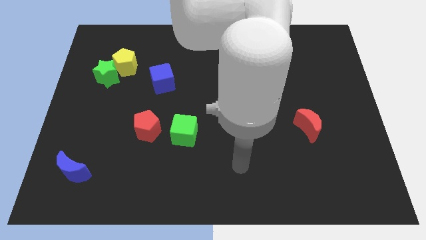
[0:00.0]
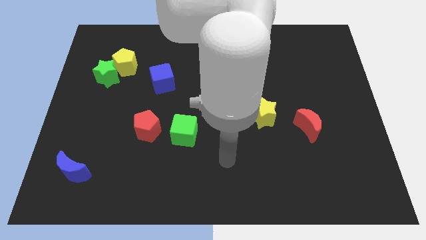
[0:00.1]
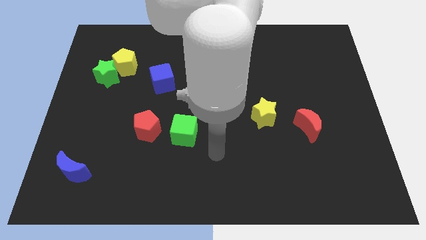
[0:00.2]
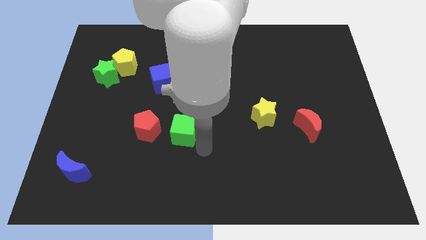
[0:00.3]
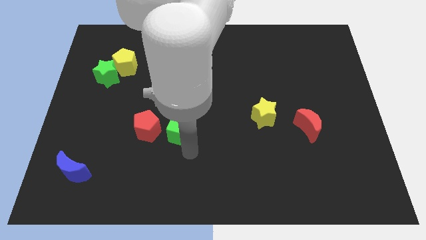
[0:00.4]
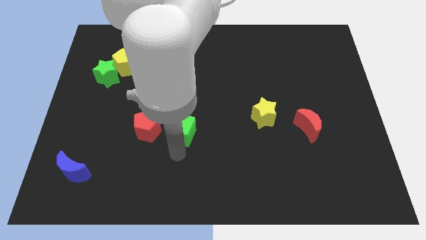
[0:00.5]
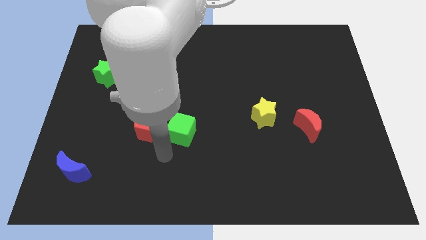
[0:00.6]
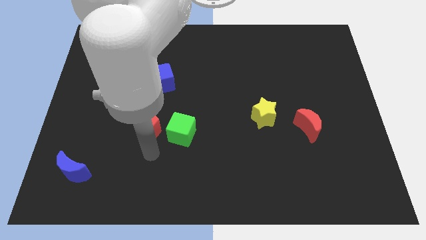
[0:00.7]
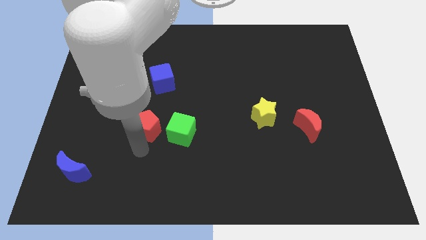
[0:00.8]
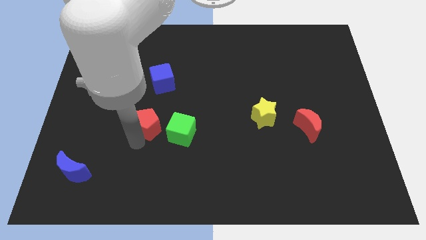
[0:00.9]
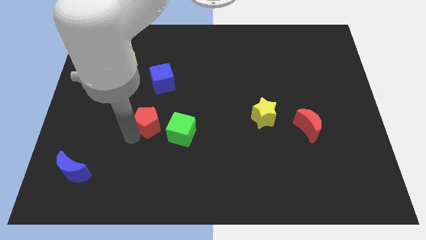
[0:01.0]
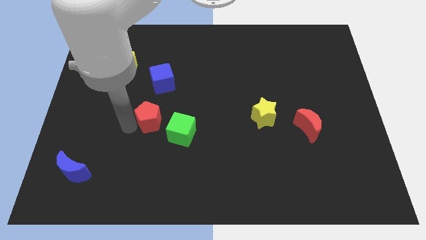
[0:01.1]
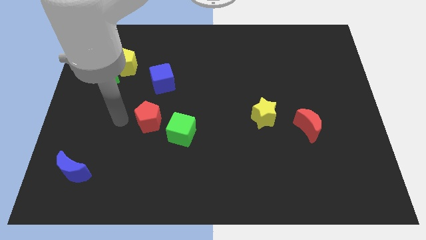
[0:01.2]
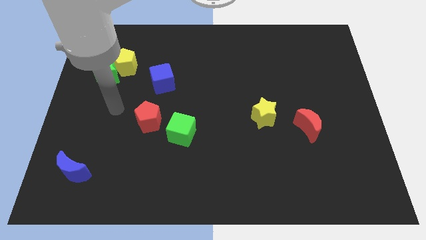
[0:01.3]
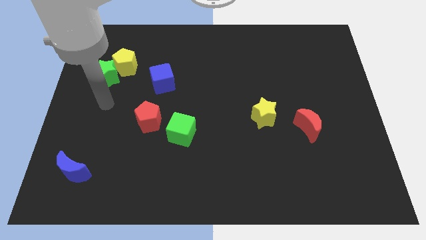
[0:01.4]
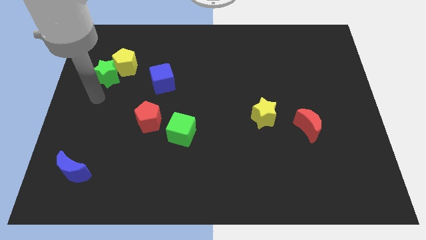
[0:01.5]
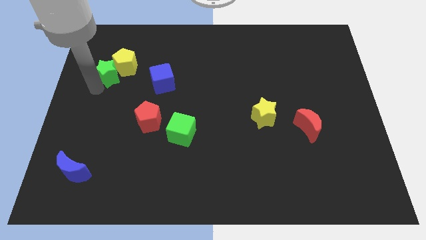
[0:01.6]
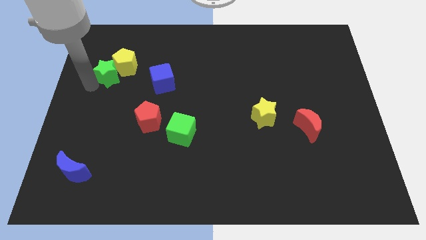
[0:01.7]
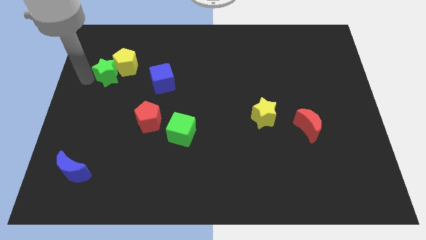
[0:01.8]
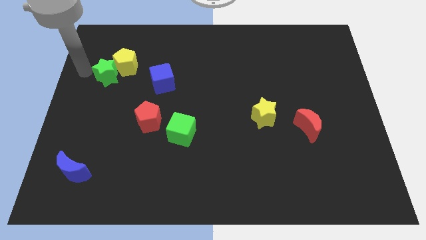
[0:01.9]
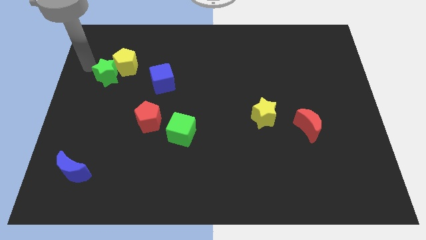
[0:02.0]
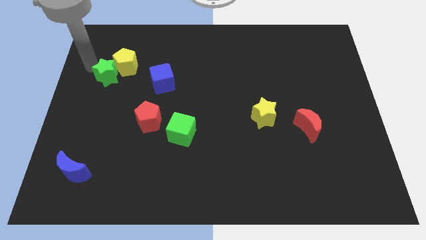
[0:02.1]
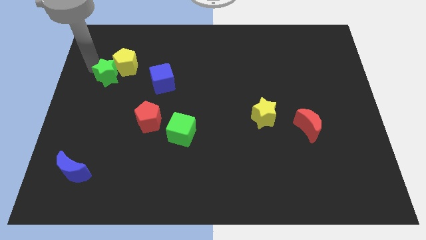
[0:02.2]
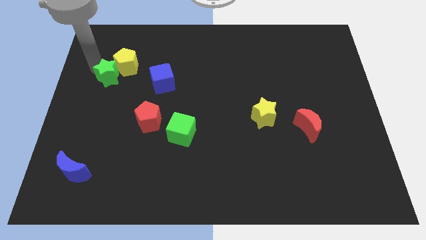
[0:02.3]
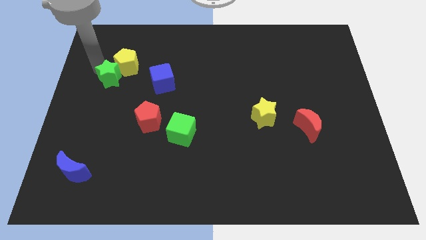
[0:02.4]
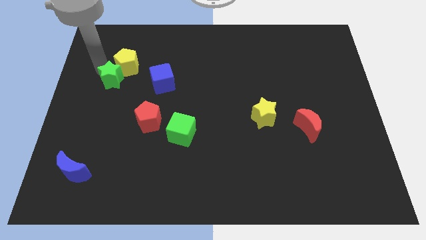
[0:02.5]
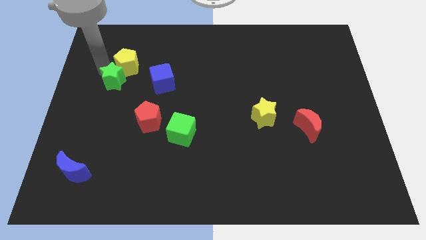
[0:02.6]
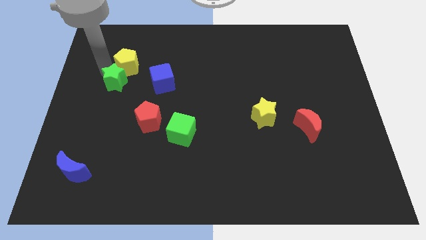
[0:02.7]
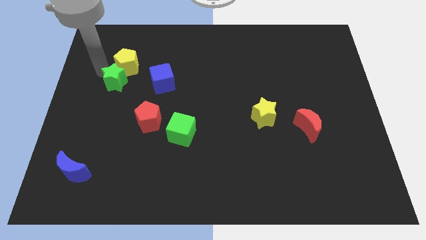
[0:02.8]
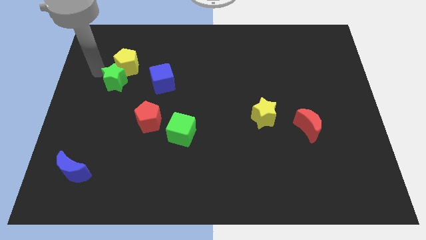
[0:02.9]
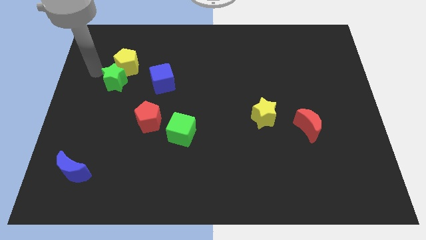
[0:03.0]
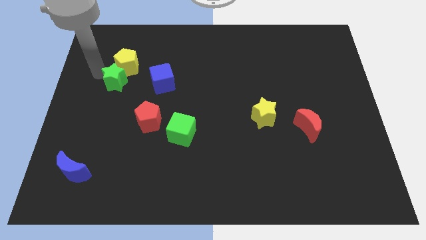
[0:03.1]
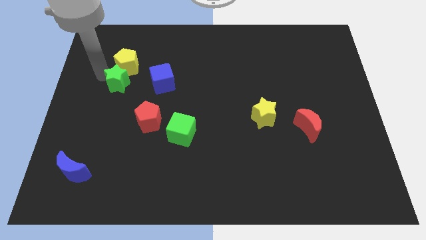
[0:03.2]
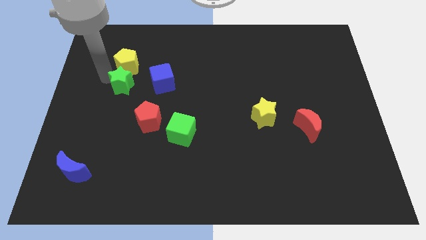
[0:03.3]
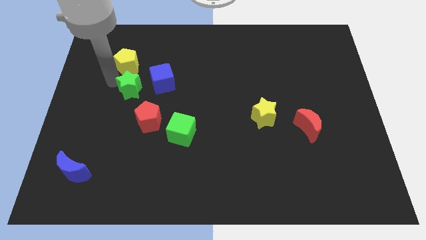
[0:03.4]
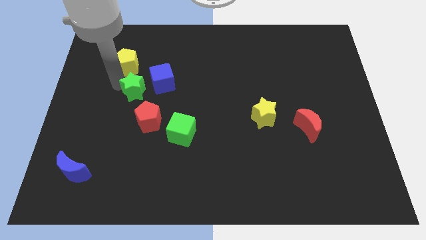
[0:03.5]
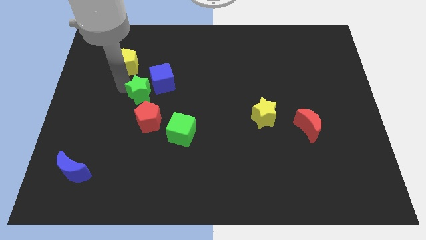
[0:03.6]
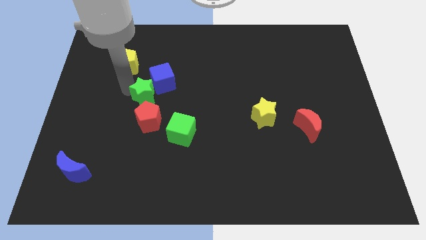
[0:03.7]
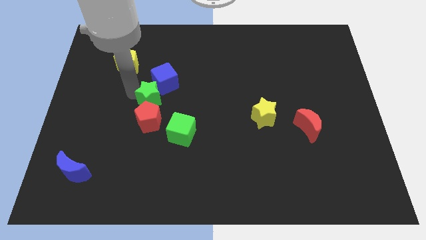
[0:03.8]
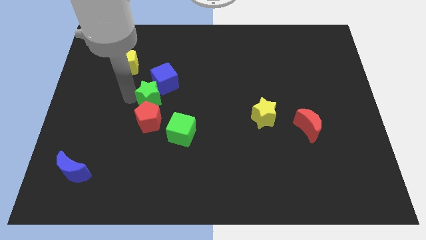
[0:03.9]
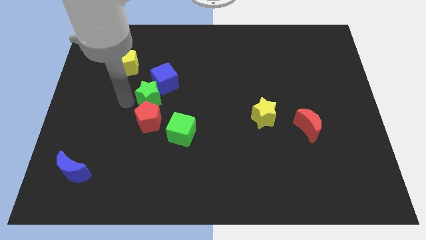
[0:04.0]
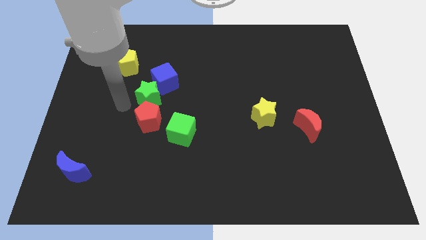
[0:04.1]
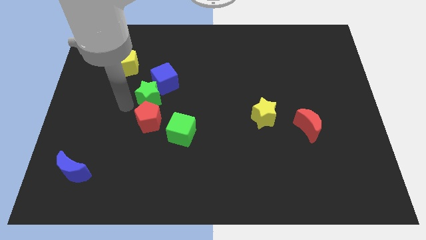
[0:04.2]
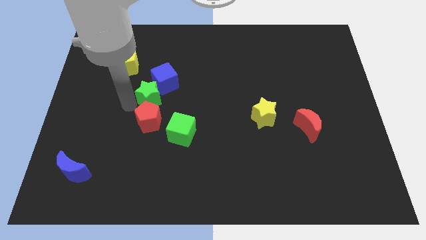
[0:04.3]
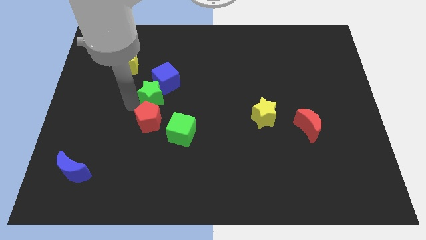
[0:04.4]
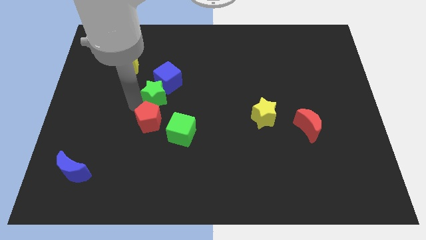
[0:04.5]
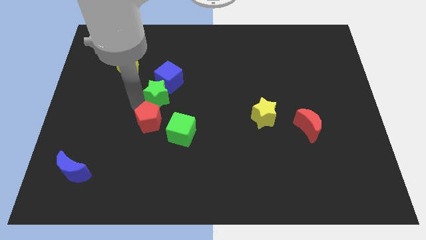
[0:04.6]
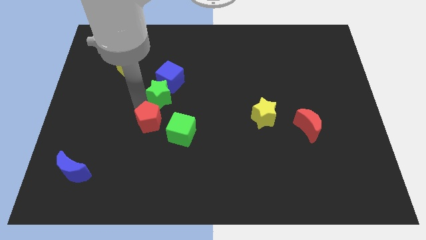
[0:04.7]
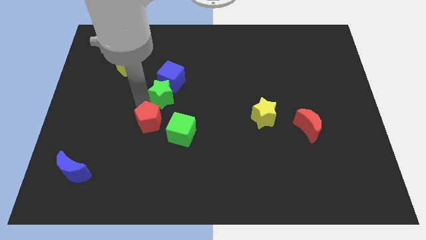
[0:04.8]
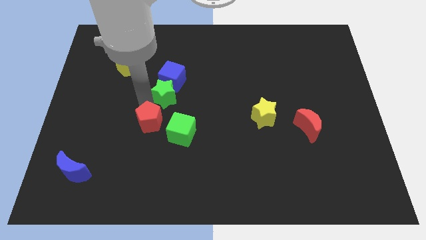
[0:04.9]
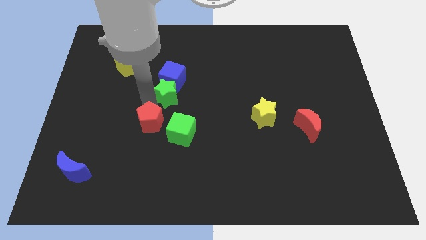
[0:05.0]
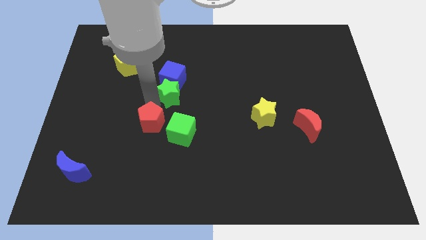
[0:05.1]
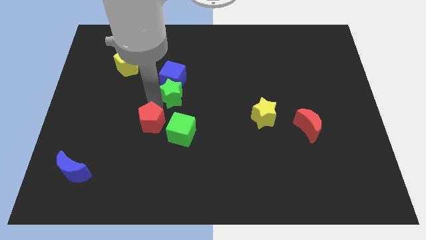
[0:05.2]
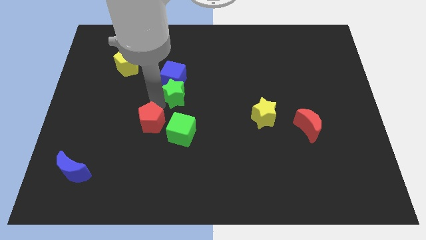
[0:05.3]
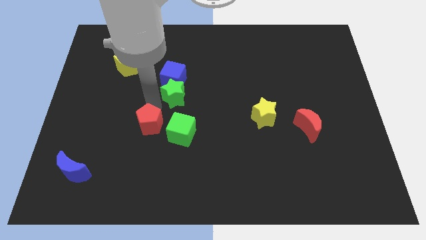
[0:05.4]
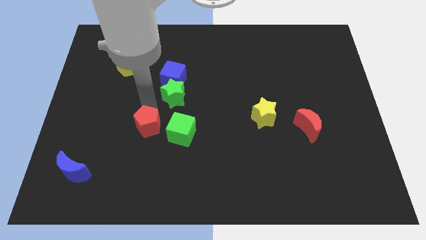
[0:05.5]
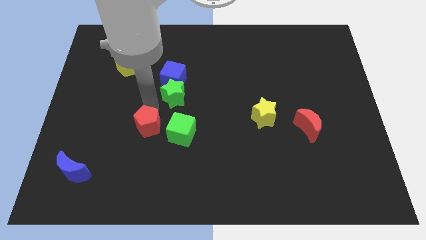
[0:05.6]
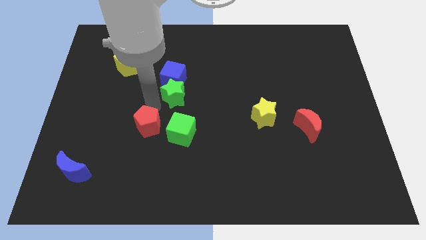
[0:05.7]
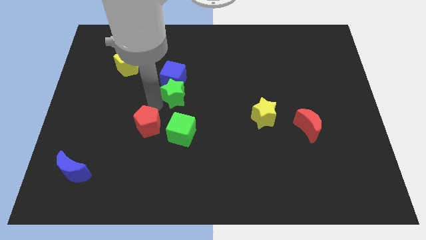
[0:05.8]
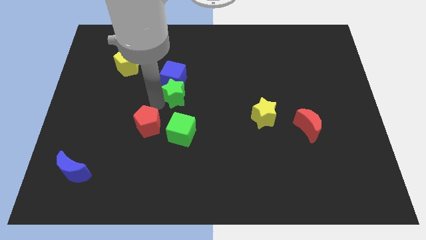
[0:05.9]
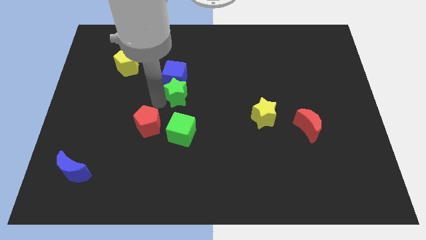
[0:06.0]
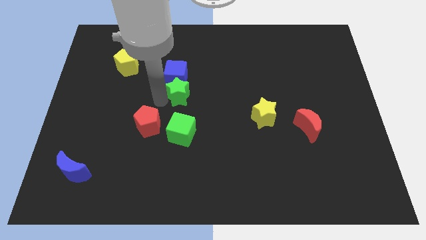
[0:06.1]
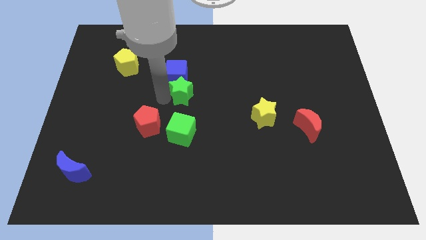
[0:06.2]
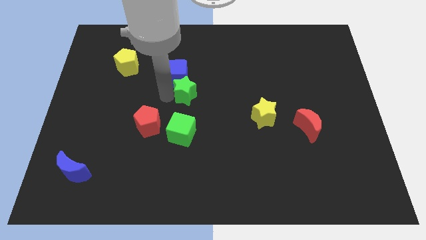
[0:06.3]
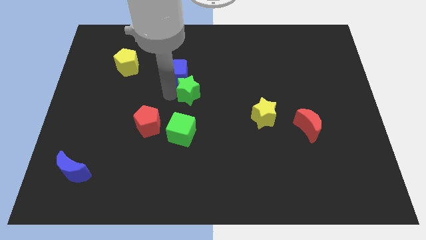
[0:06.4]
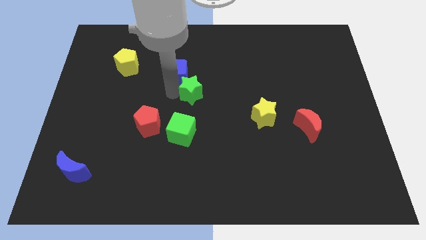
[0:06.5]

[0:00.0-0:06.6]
push the green star right

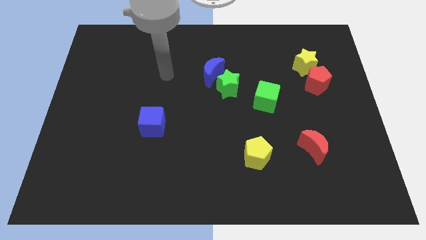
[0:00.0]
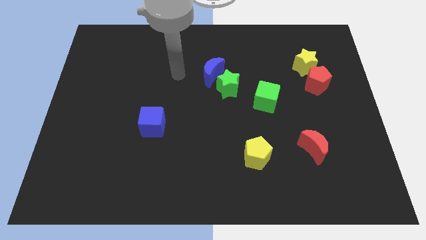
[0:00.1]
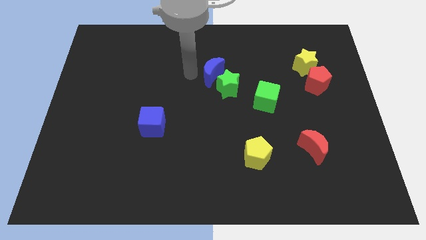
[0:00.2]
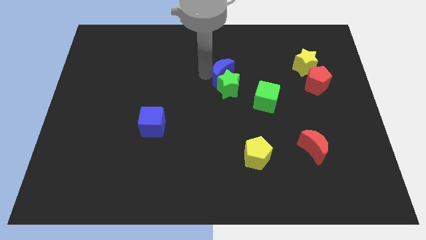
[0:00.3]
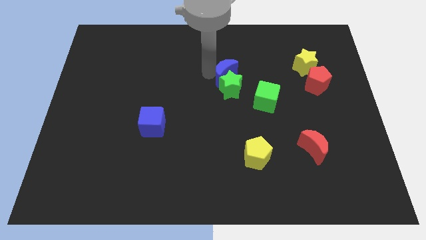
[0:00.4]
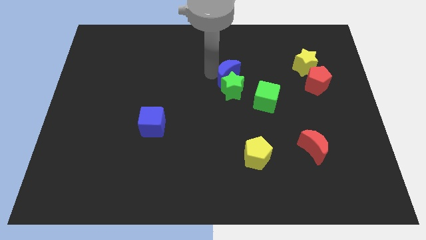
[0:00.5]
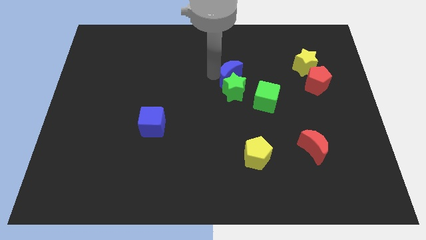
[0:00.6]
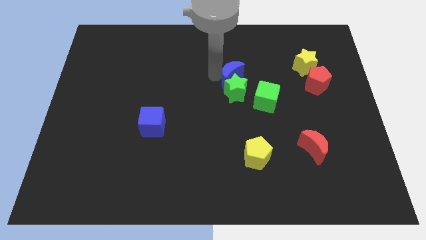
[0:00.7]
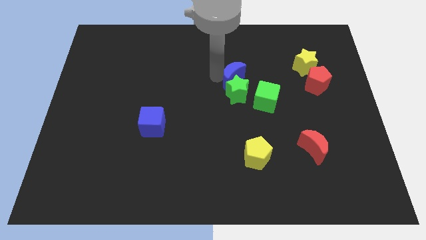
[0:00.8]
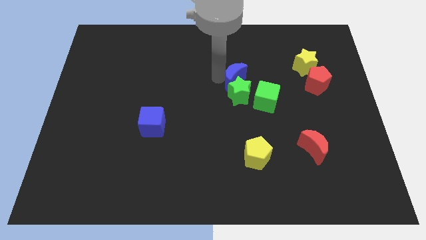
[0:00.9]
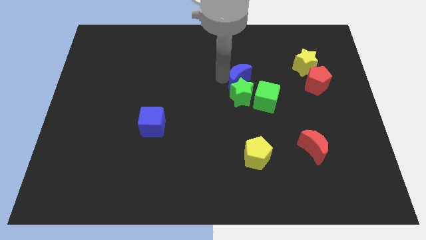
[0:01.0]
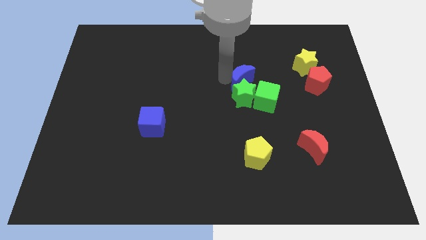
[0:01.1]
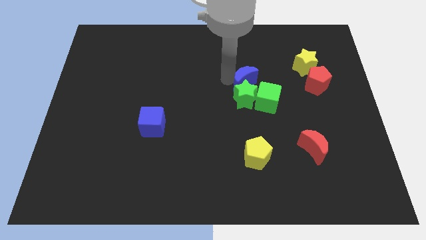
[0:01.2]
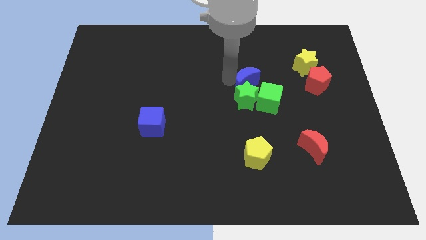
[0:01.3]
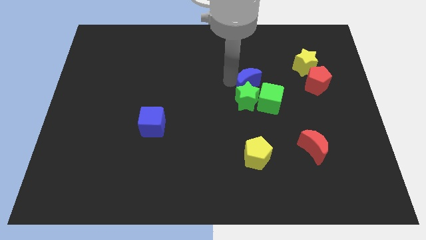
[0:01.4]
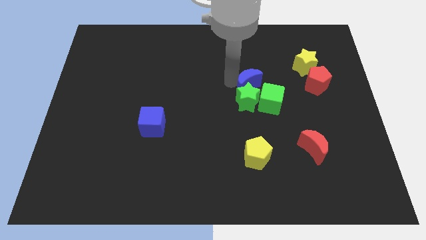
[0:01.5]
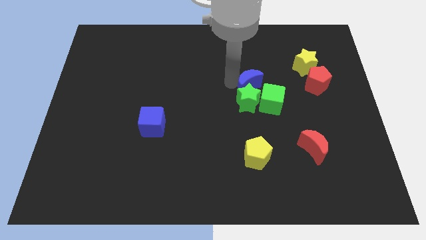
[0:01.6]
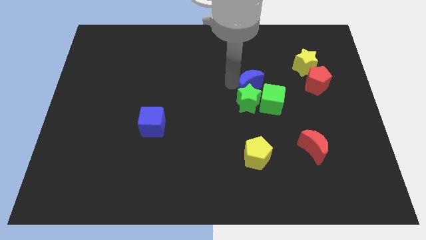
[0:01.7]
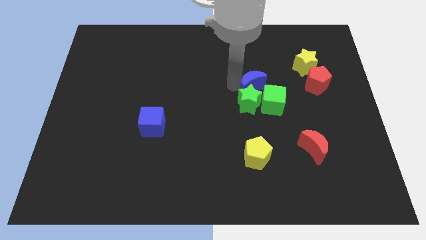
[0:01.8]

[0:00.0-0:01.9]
move the green star down and then right somewhat
